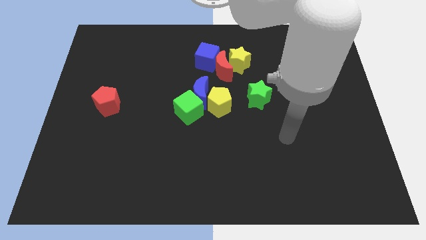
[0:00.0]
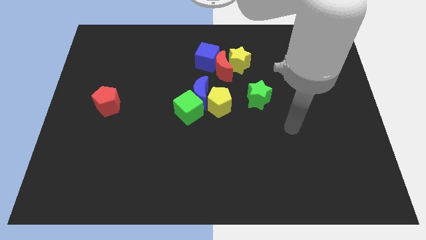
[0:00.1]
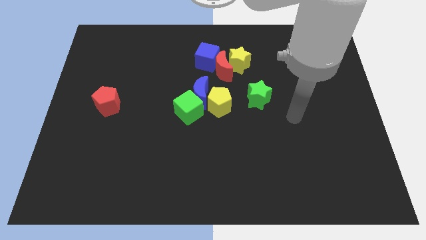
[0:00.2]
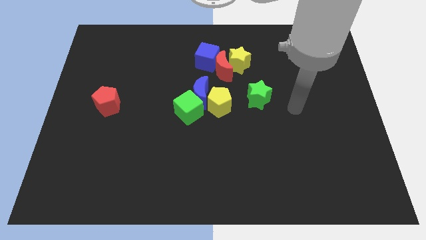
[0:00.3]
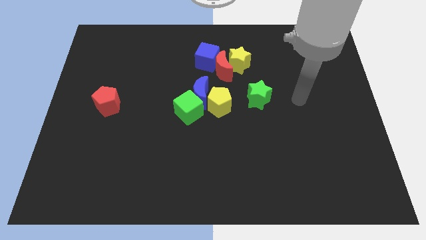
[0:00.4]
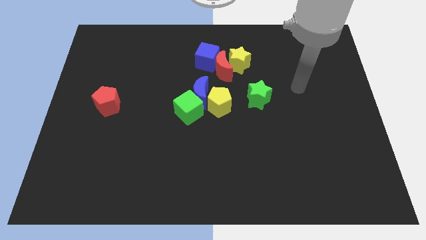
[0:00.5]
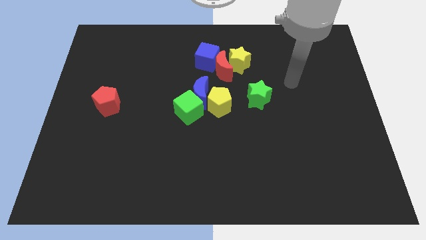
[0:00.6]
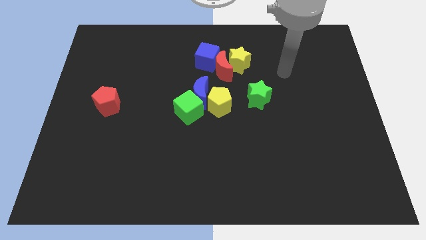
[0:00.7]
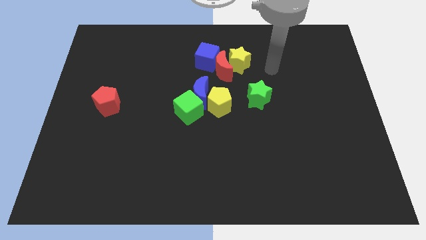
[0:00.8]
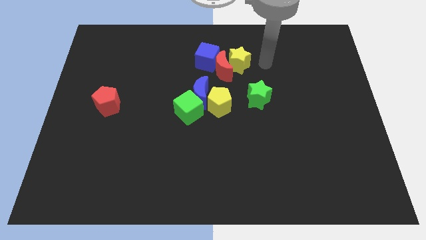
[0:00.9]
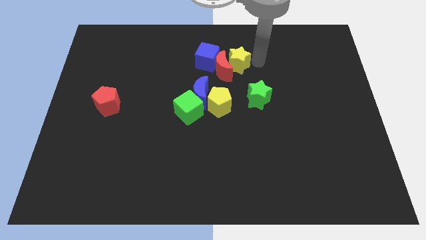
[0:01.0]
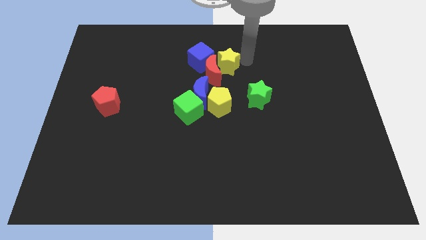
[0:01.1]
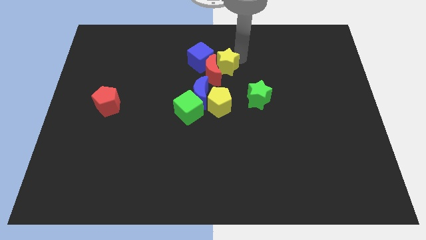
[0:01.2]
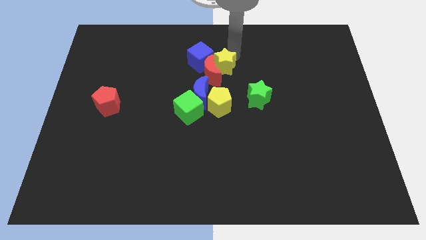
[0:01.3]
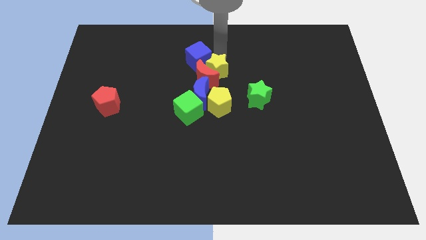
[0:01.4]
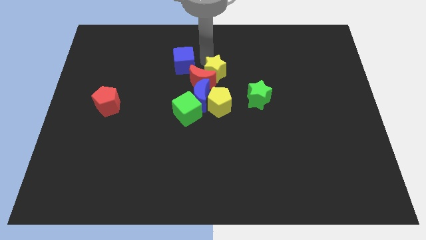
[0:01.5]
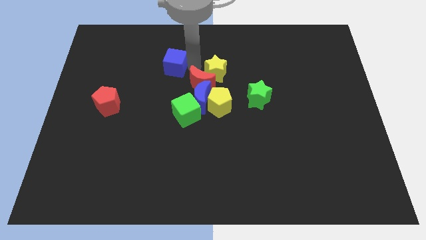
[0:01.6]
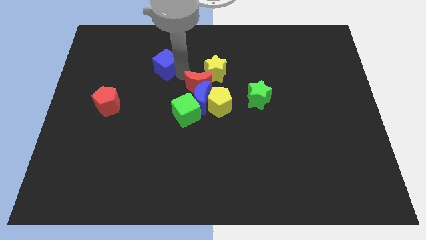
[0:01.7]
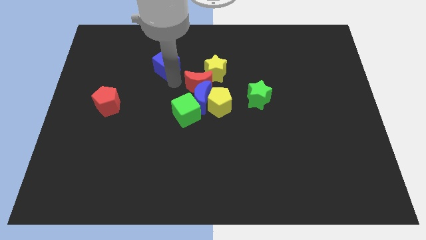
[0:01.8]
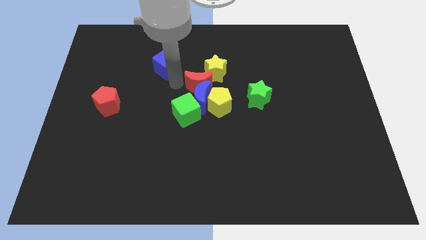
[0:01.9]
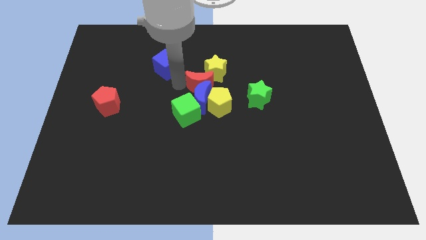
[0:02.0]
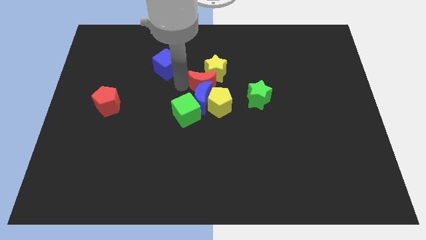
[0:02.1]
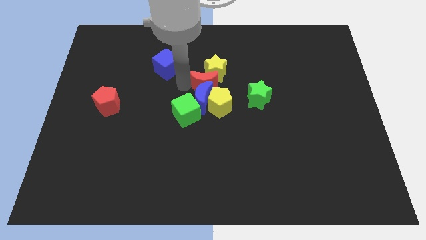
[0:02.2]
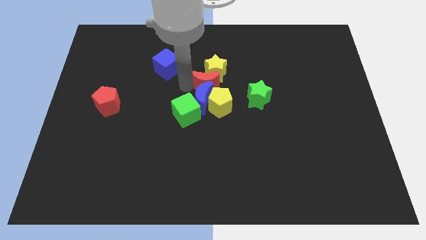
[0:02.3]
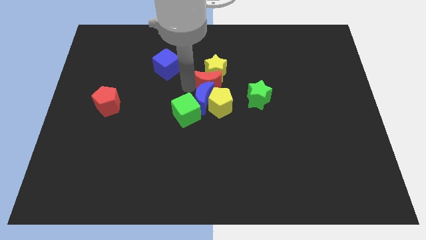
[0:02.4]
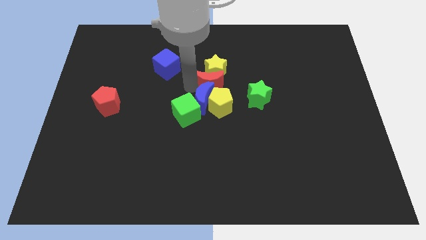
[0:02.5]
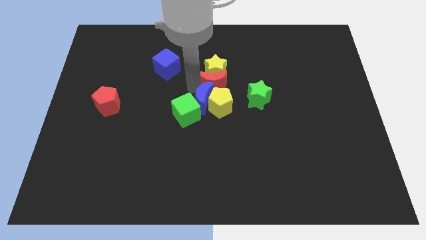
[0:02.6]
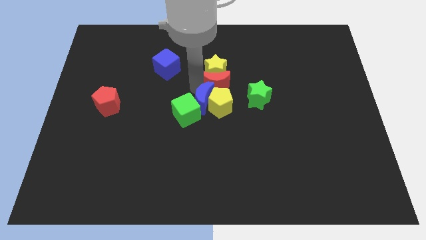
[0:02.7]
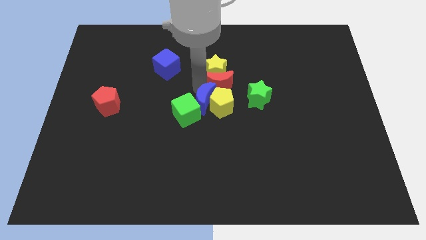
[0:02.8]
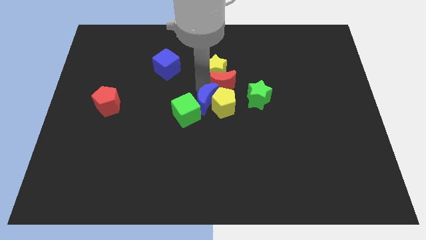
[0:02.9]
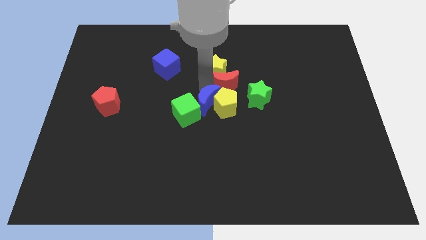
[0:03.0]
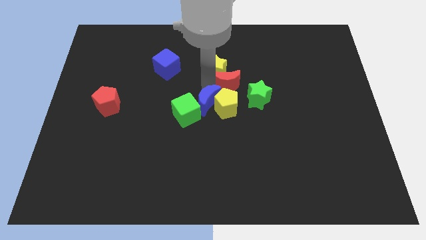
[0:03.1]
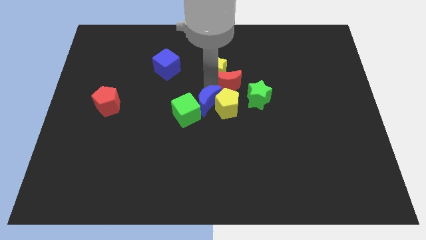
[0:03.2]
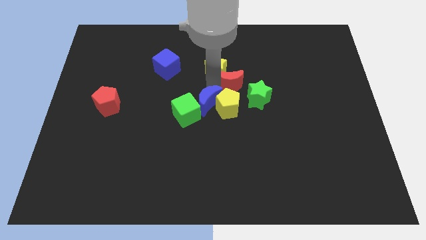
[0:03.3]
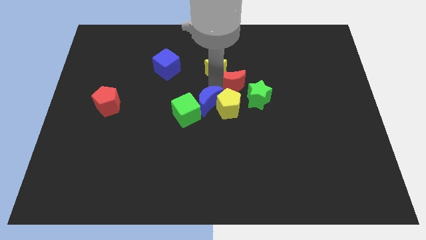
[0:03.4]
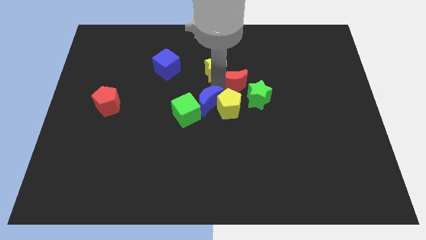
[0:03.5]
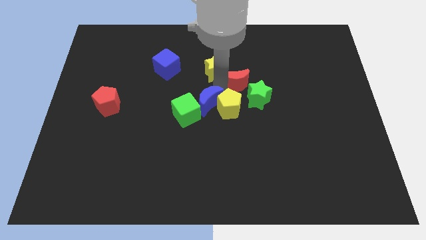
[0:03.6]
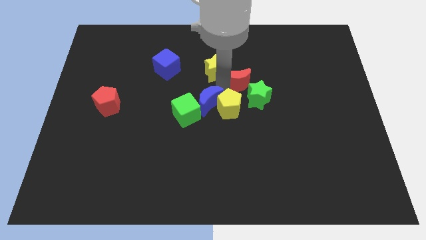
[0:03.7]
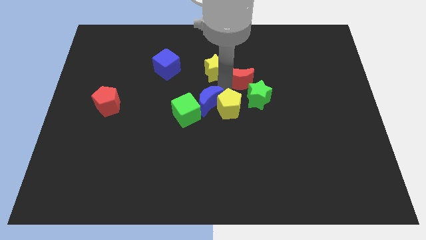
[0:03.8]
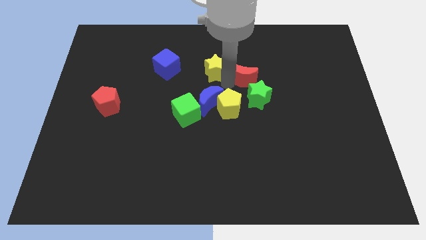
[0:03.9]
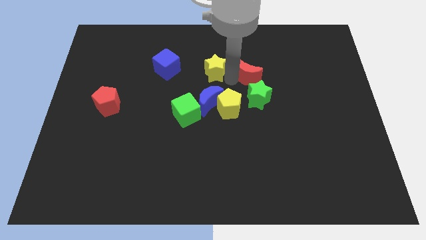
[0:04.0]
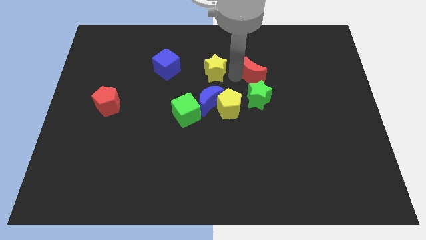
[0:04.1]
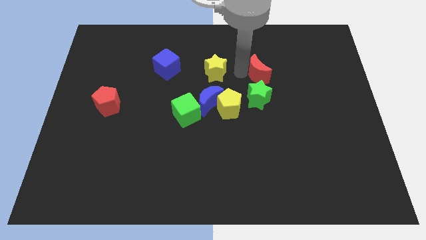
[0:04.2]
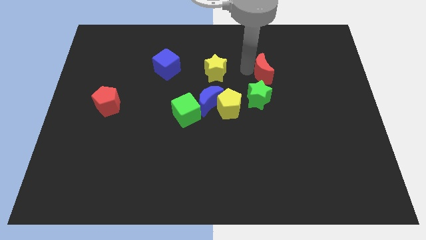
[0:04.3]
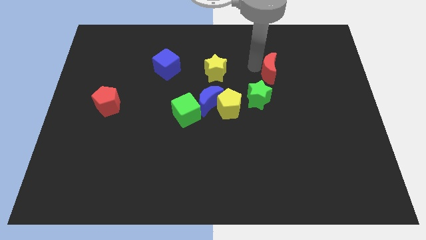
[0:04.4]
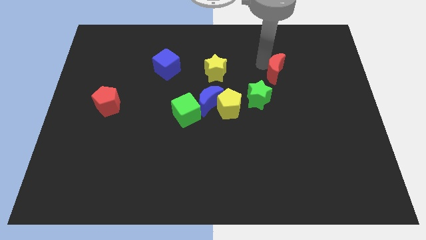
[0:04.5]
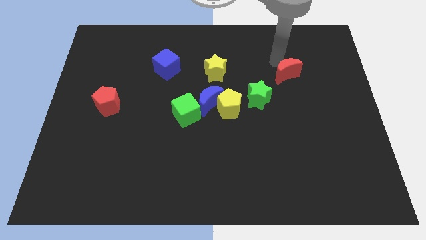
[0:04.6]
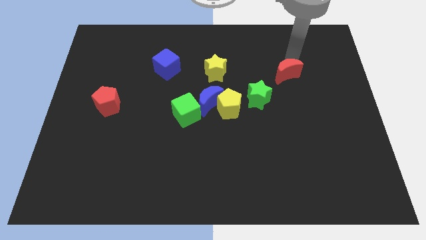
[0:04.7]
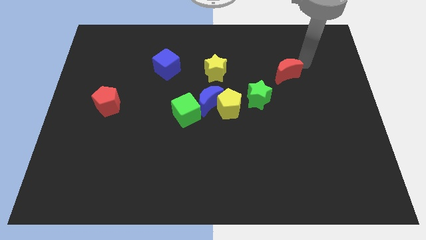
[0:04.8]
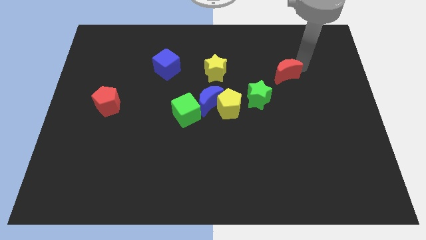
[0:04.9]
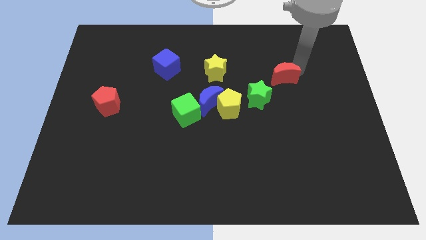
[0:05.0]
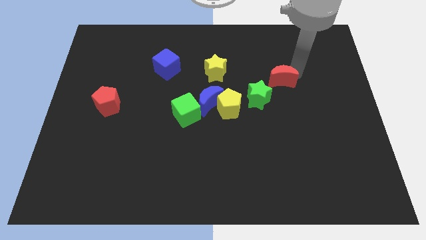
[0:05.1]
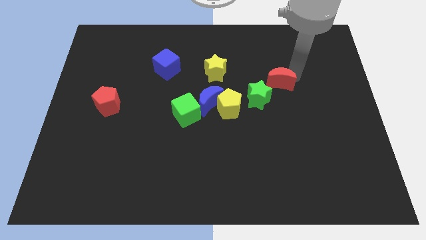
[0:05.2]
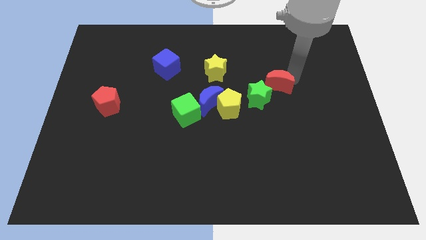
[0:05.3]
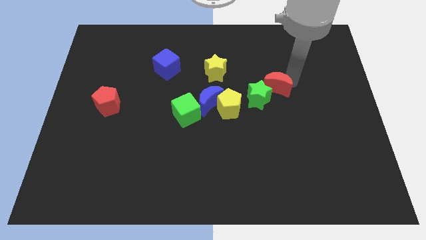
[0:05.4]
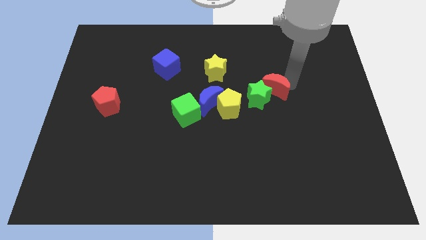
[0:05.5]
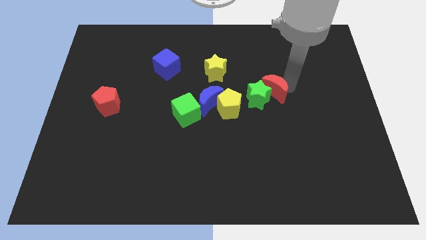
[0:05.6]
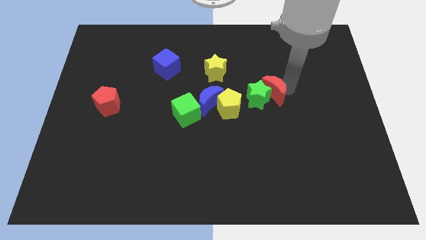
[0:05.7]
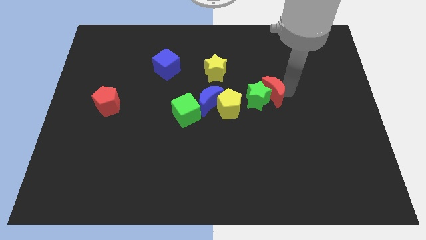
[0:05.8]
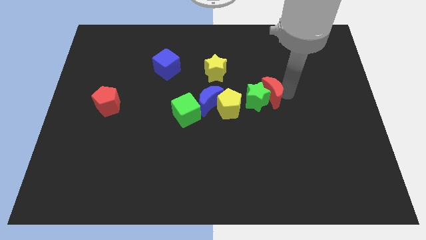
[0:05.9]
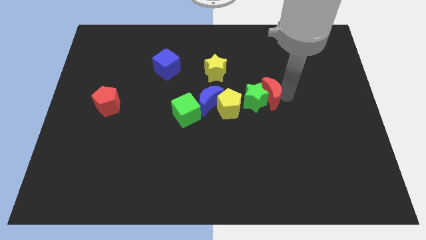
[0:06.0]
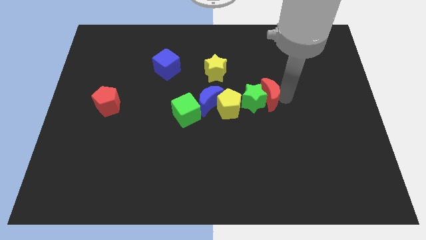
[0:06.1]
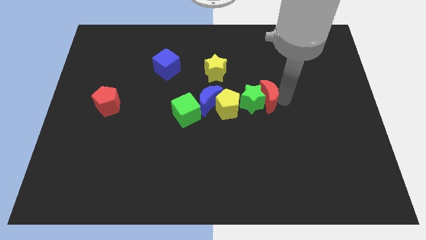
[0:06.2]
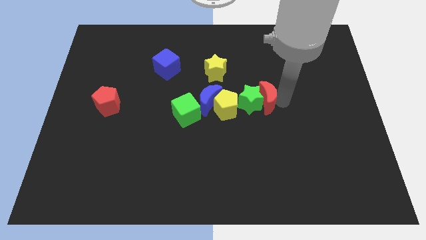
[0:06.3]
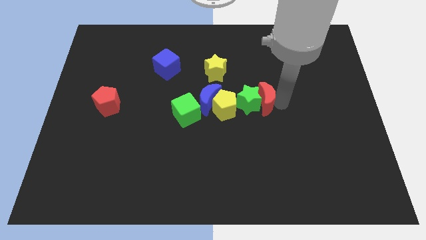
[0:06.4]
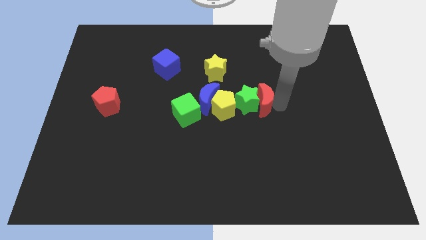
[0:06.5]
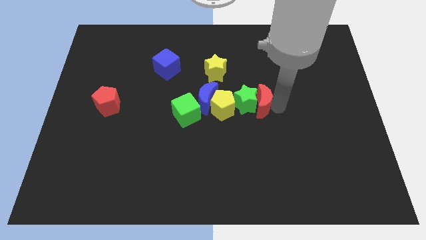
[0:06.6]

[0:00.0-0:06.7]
slightly push the red moon downwards

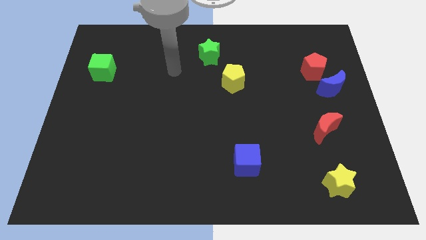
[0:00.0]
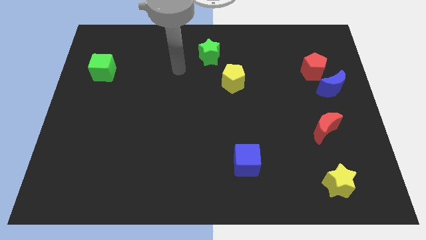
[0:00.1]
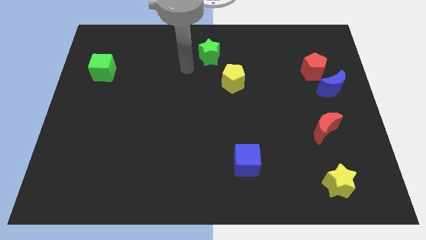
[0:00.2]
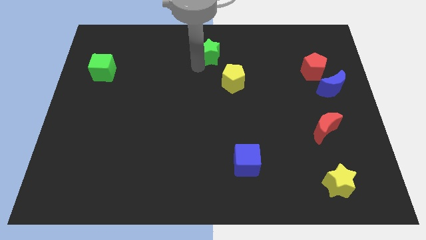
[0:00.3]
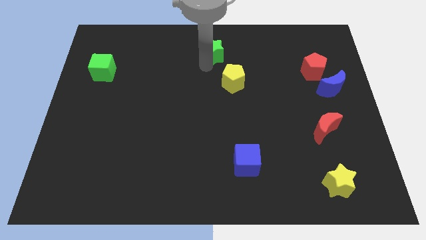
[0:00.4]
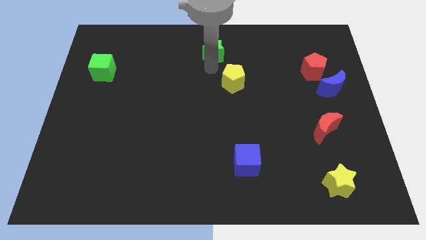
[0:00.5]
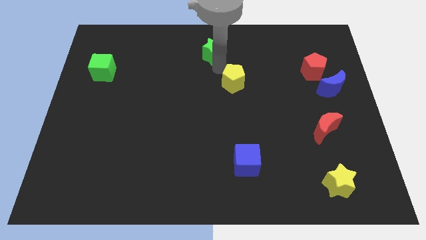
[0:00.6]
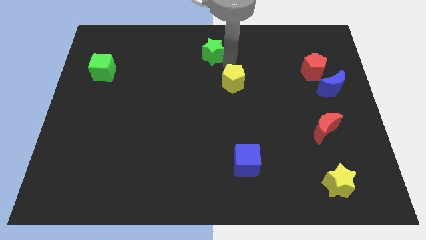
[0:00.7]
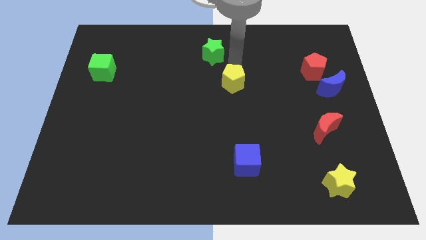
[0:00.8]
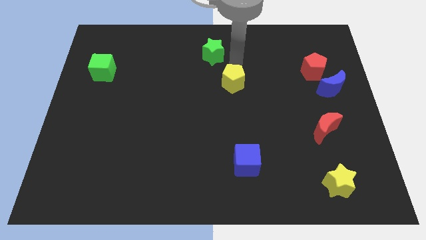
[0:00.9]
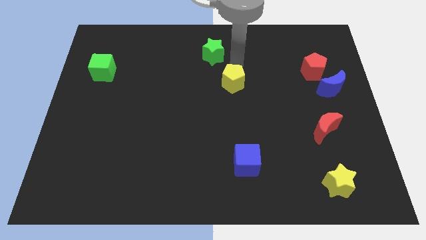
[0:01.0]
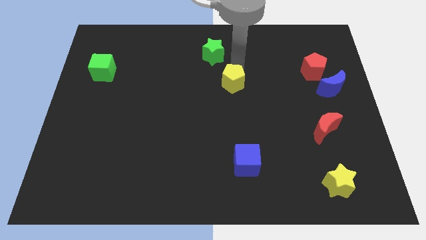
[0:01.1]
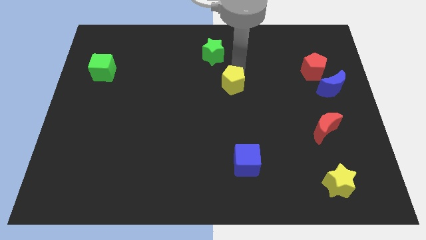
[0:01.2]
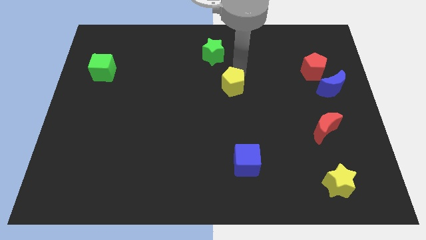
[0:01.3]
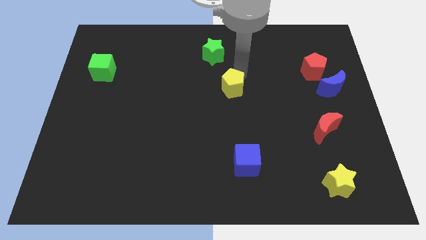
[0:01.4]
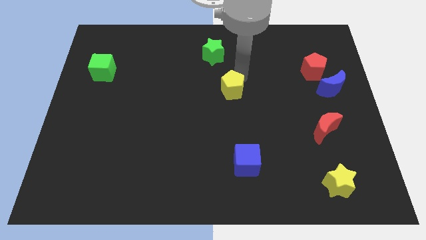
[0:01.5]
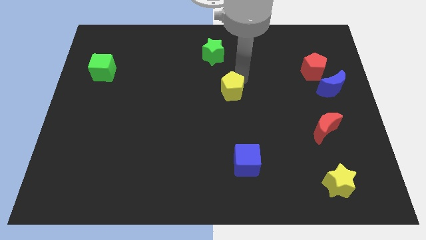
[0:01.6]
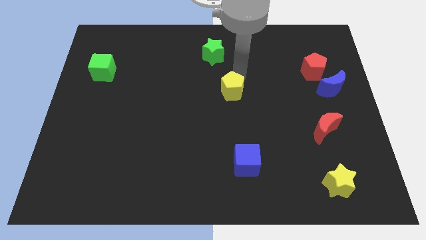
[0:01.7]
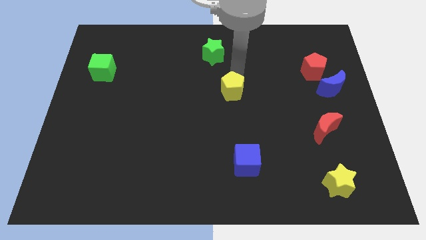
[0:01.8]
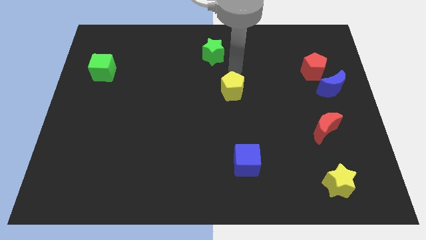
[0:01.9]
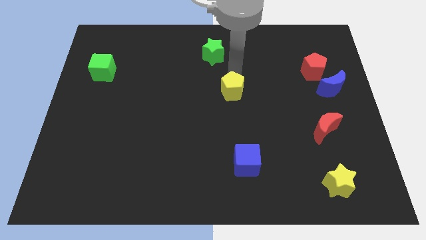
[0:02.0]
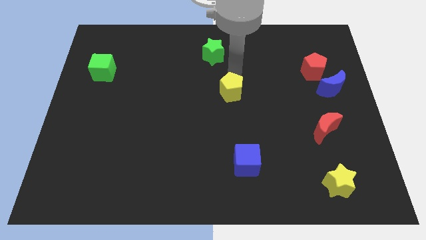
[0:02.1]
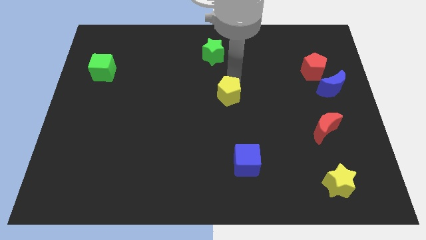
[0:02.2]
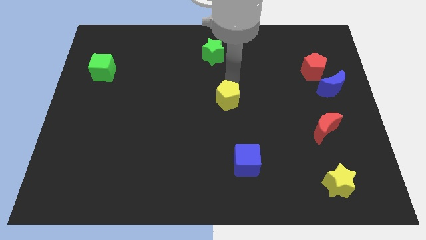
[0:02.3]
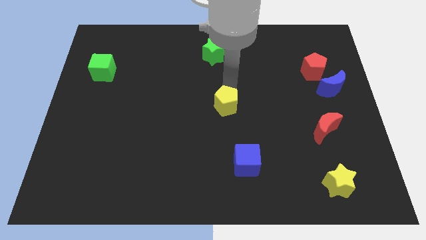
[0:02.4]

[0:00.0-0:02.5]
move the yellow pentagon down a little
